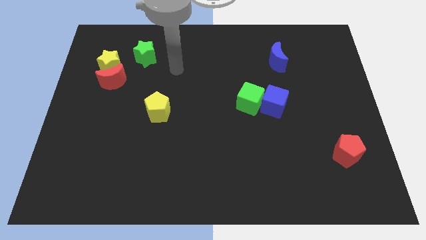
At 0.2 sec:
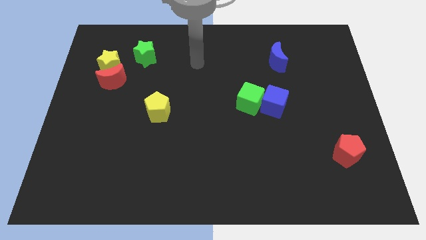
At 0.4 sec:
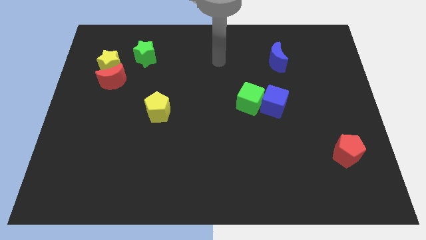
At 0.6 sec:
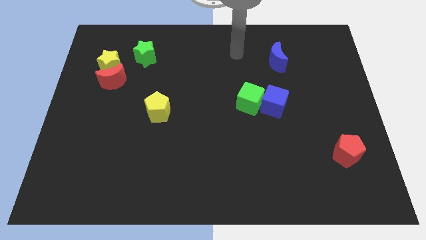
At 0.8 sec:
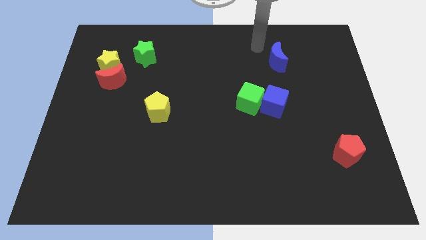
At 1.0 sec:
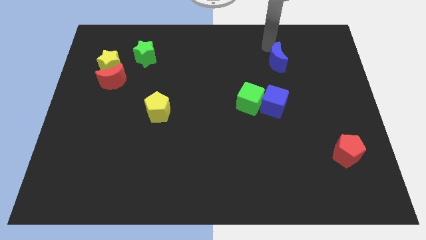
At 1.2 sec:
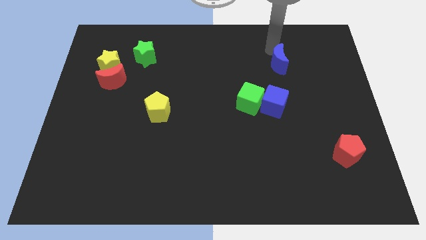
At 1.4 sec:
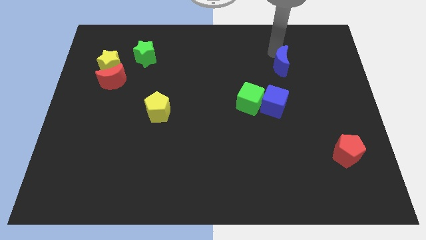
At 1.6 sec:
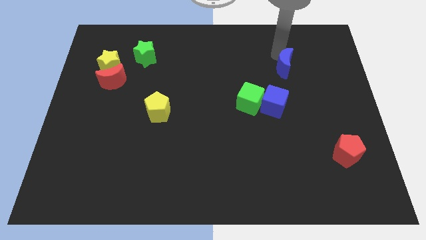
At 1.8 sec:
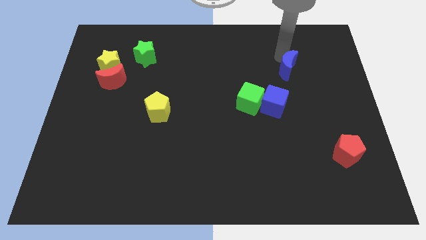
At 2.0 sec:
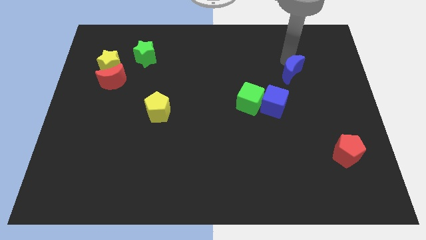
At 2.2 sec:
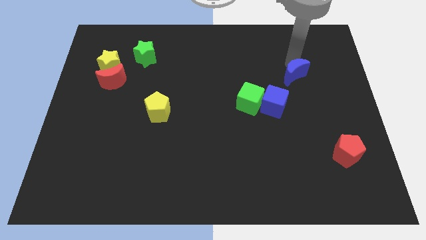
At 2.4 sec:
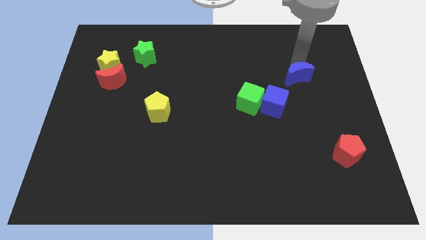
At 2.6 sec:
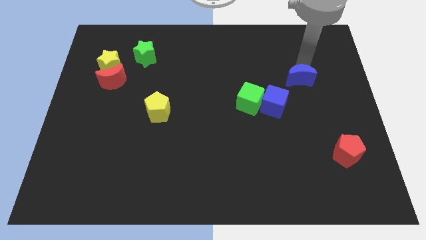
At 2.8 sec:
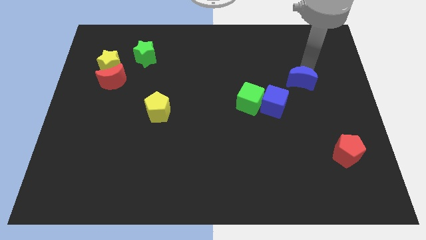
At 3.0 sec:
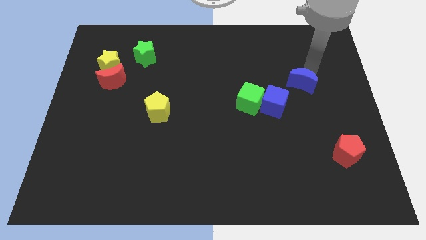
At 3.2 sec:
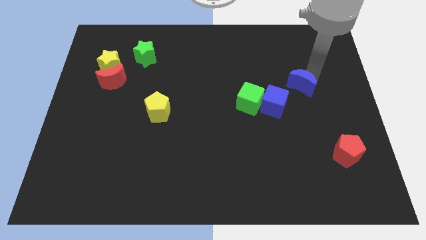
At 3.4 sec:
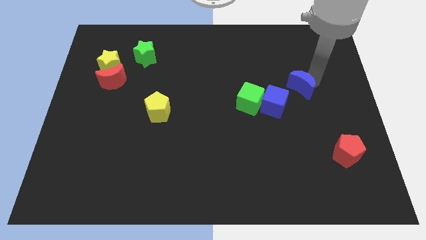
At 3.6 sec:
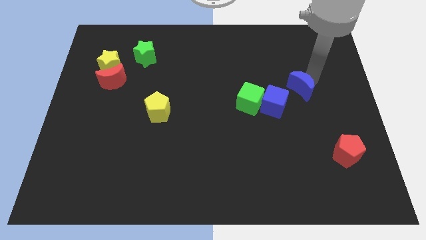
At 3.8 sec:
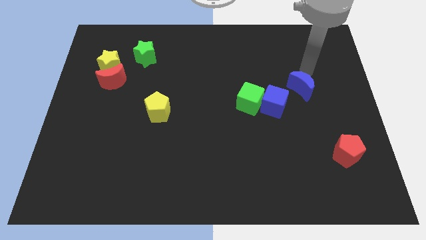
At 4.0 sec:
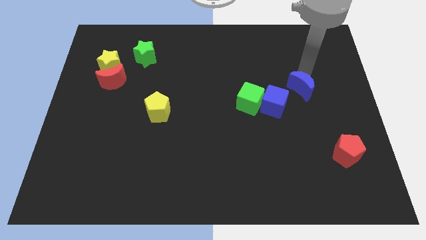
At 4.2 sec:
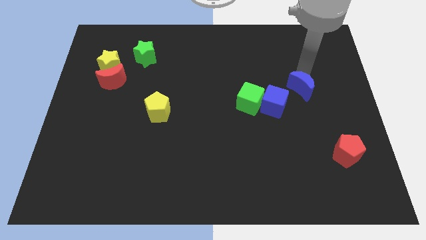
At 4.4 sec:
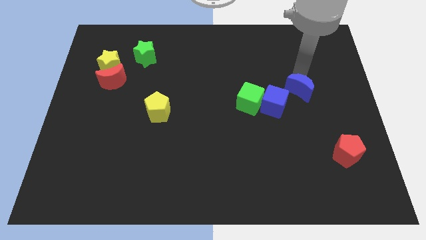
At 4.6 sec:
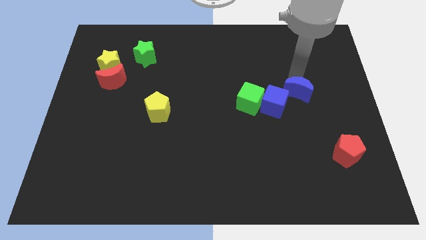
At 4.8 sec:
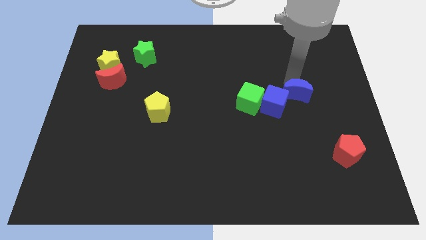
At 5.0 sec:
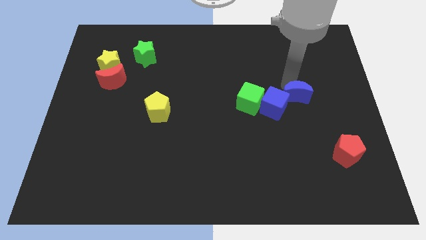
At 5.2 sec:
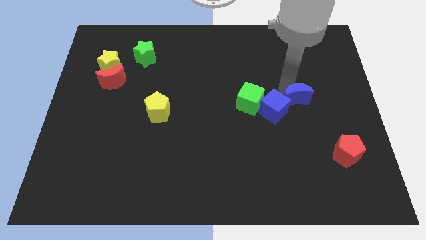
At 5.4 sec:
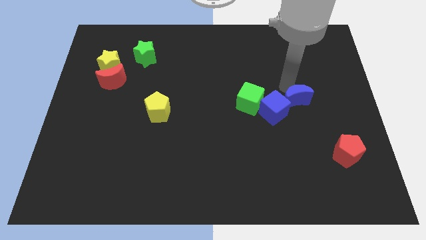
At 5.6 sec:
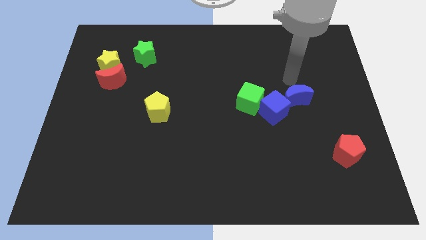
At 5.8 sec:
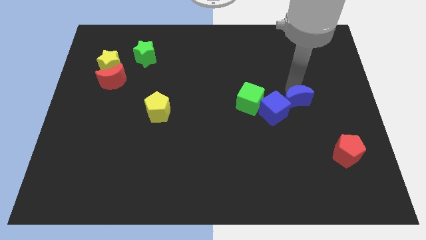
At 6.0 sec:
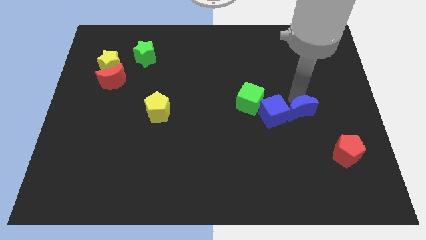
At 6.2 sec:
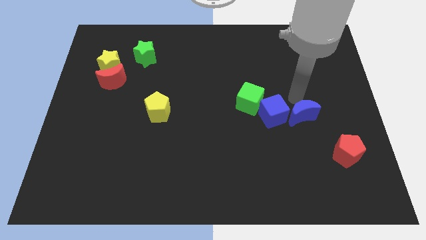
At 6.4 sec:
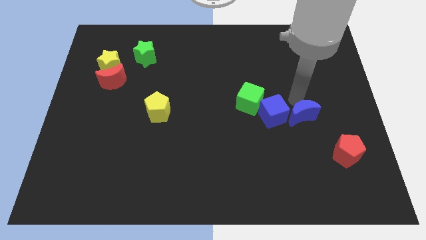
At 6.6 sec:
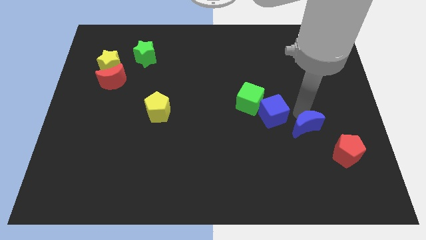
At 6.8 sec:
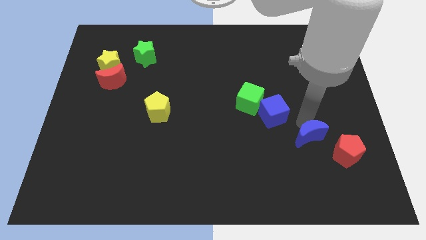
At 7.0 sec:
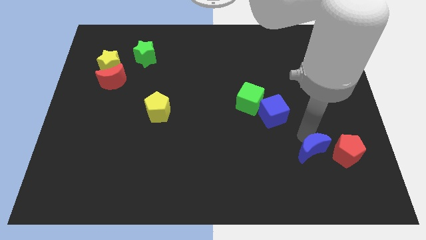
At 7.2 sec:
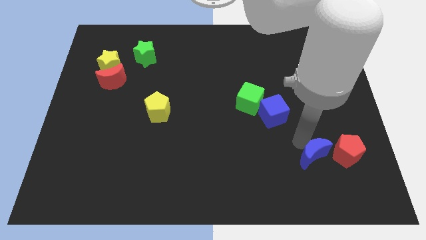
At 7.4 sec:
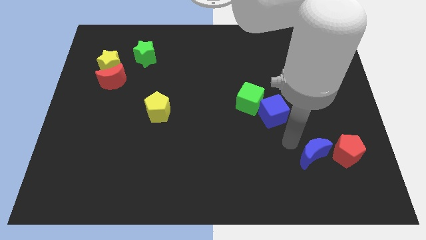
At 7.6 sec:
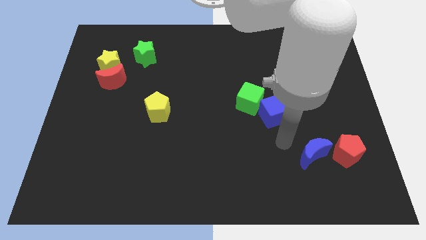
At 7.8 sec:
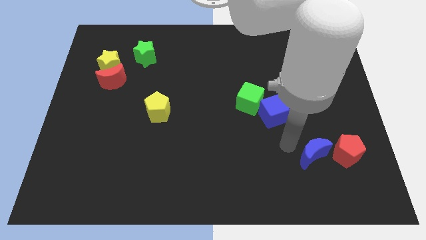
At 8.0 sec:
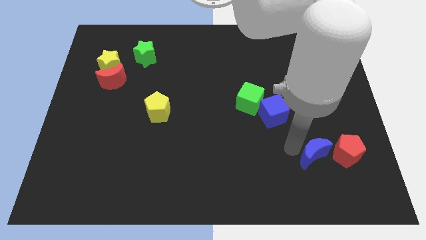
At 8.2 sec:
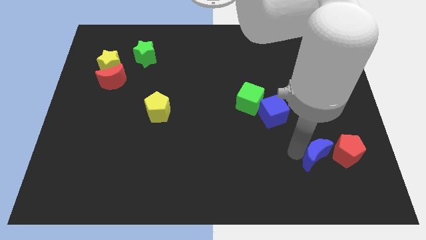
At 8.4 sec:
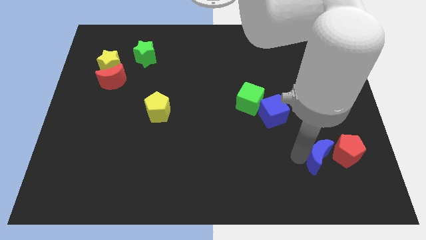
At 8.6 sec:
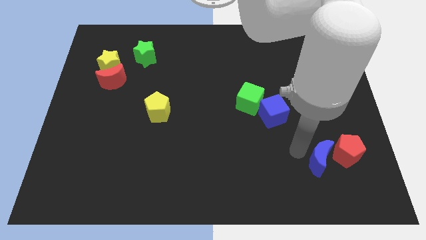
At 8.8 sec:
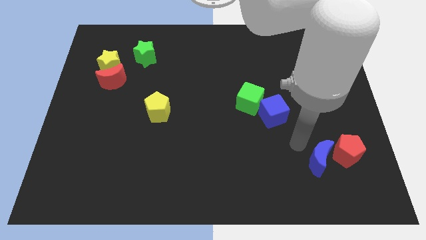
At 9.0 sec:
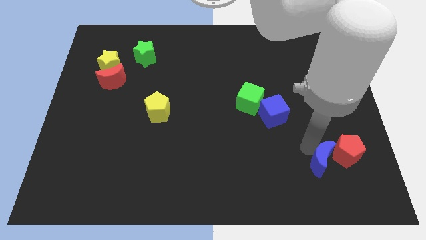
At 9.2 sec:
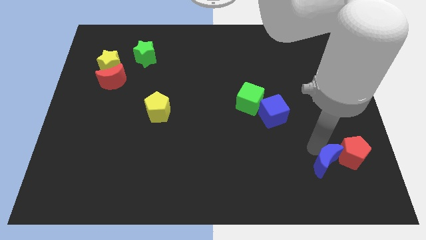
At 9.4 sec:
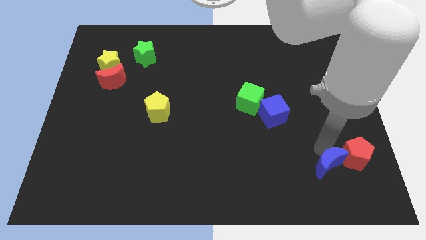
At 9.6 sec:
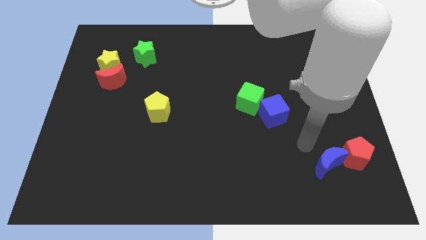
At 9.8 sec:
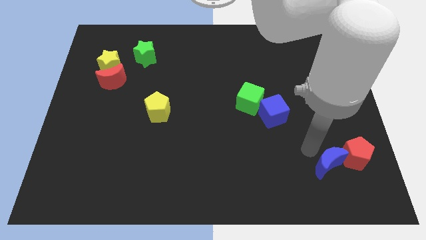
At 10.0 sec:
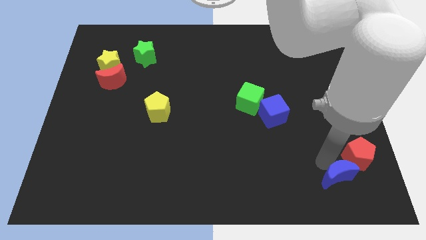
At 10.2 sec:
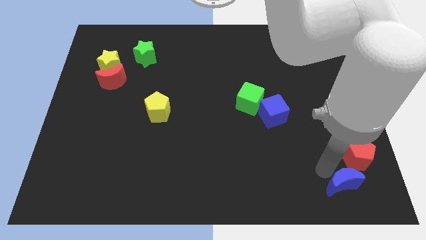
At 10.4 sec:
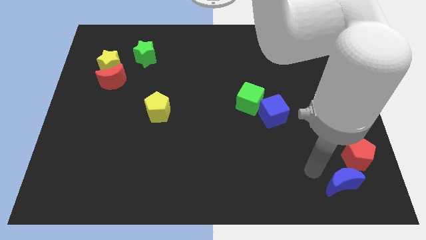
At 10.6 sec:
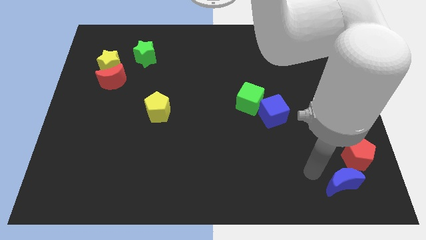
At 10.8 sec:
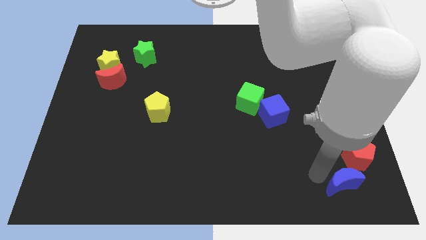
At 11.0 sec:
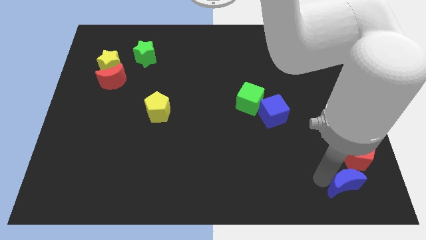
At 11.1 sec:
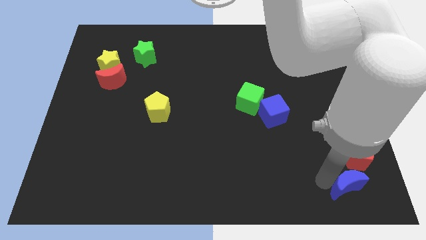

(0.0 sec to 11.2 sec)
put the blue moon to the lower right corner
